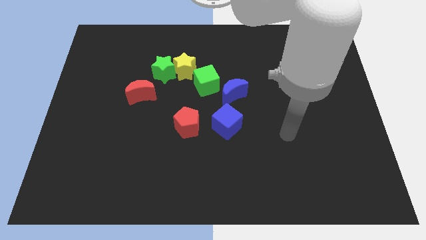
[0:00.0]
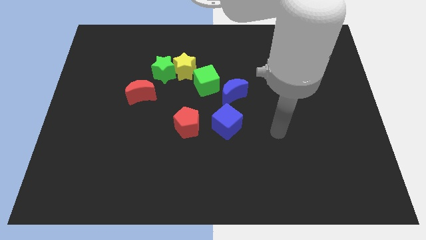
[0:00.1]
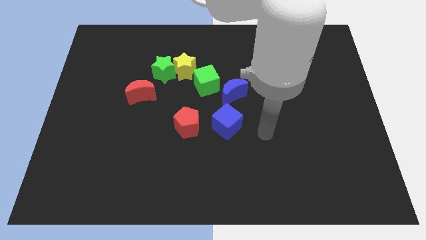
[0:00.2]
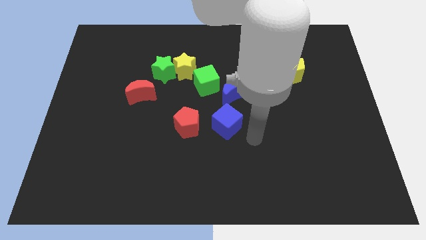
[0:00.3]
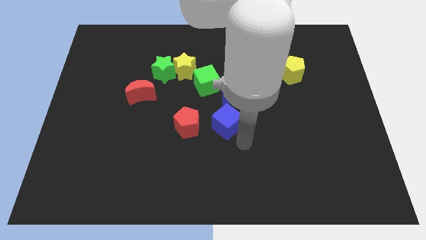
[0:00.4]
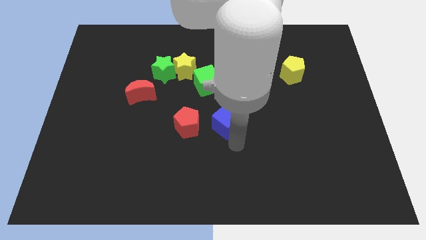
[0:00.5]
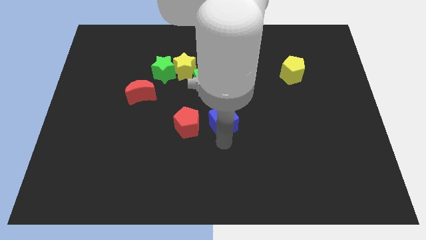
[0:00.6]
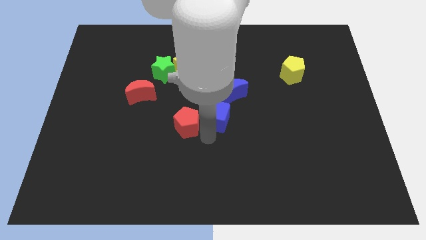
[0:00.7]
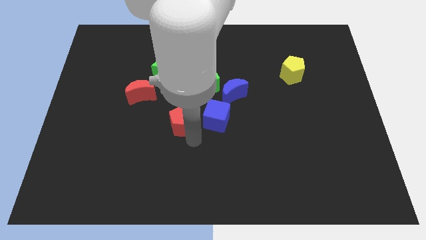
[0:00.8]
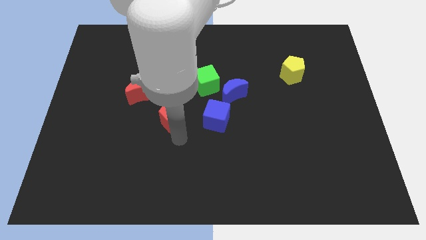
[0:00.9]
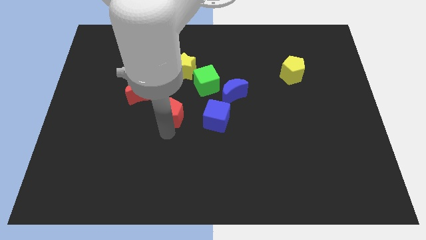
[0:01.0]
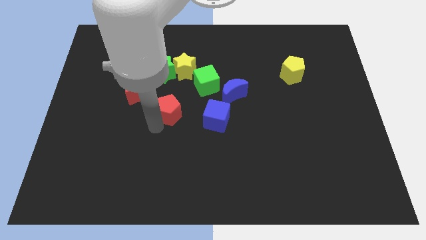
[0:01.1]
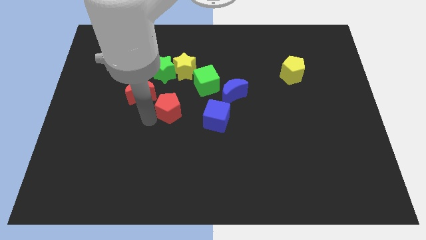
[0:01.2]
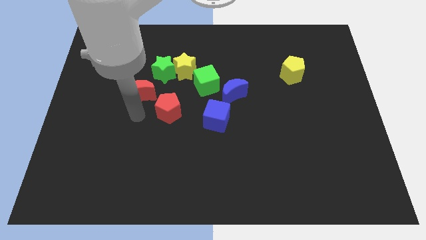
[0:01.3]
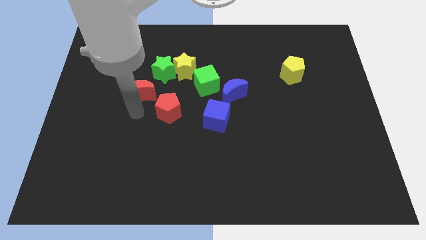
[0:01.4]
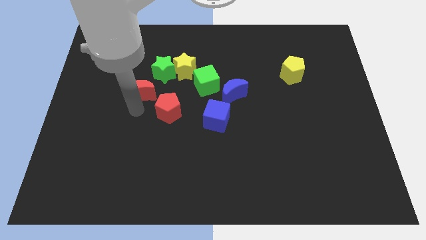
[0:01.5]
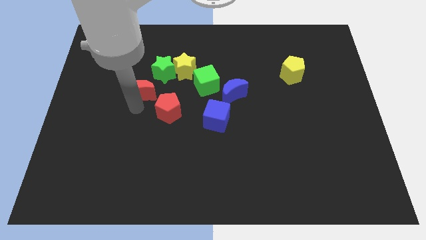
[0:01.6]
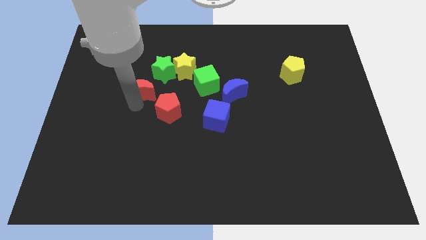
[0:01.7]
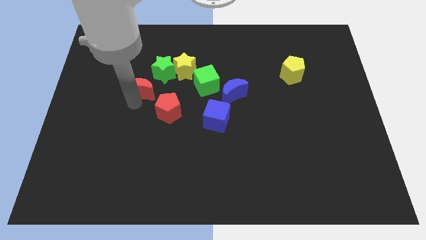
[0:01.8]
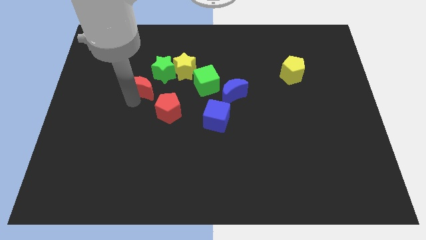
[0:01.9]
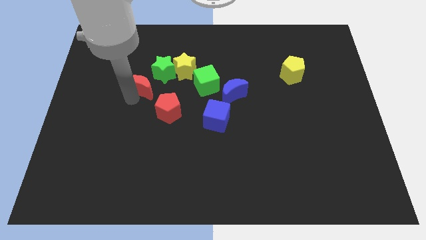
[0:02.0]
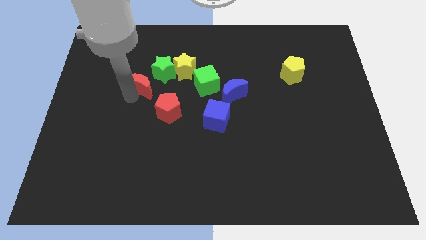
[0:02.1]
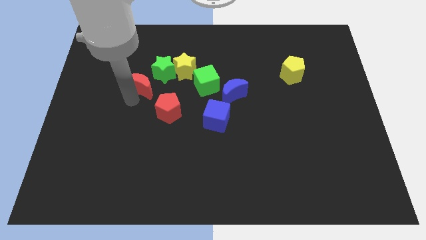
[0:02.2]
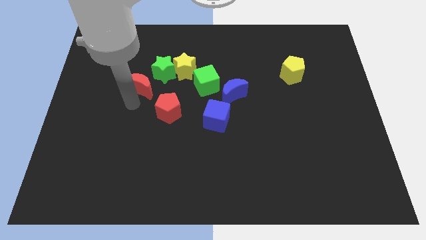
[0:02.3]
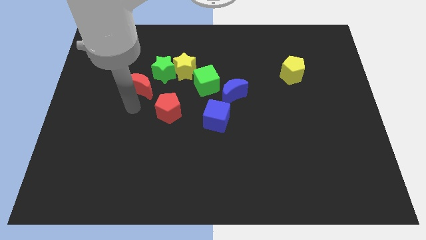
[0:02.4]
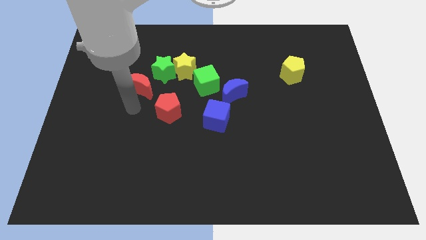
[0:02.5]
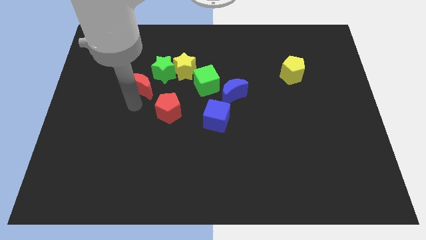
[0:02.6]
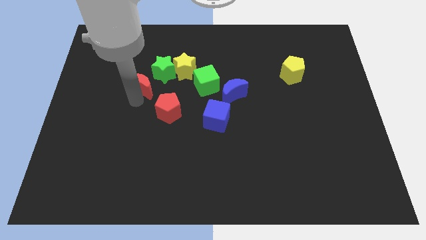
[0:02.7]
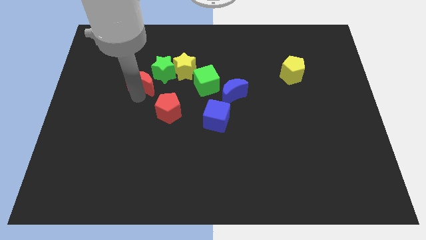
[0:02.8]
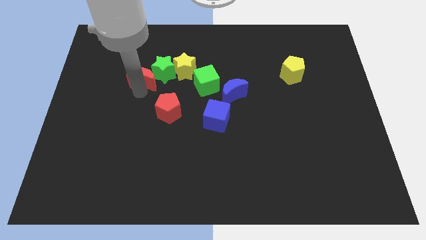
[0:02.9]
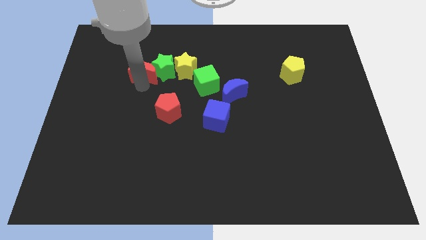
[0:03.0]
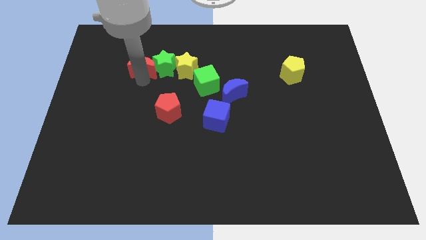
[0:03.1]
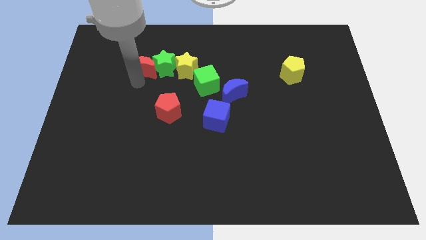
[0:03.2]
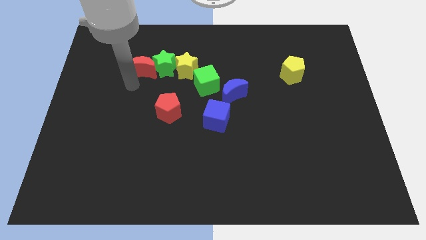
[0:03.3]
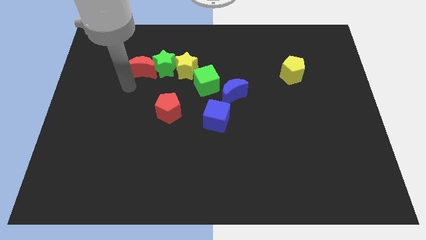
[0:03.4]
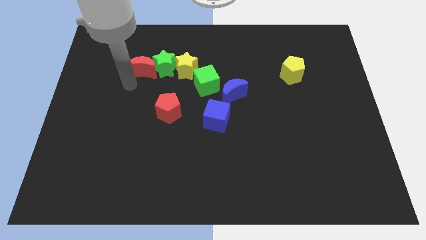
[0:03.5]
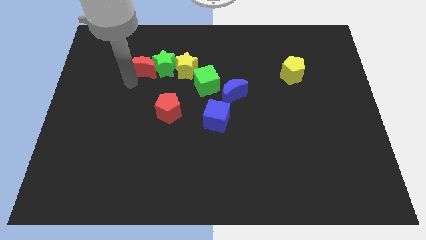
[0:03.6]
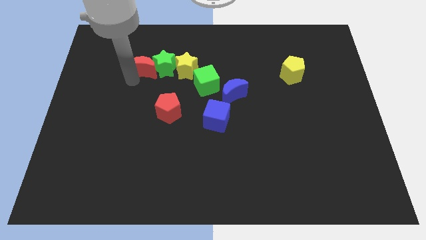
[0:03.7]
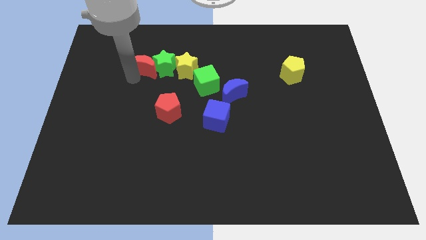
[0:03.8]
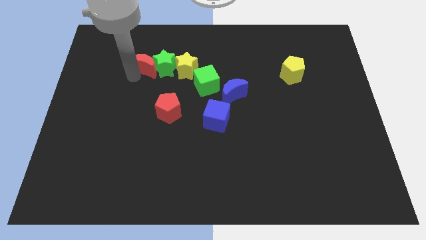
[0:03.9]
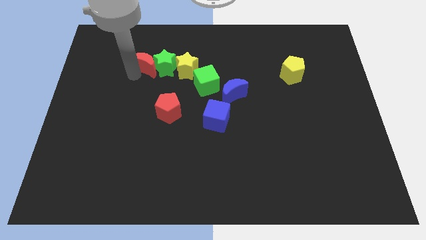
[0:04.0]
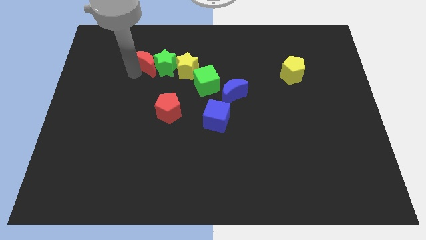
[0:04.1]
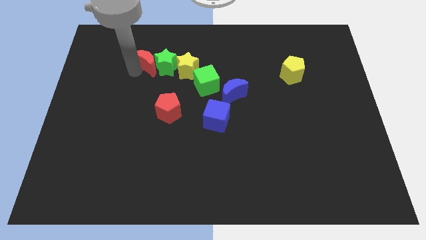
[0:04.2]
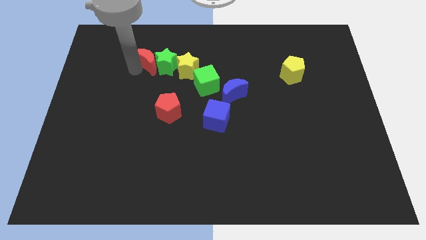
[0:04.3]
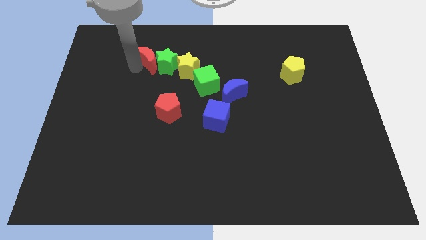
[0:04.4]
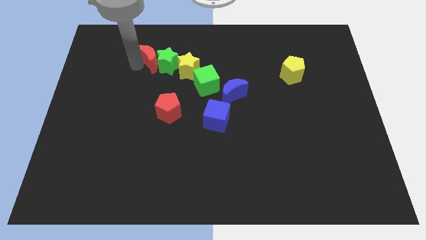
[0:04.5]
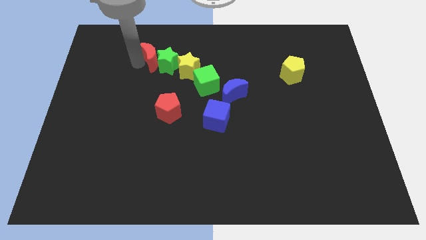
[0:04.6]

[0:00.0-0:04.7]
slightly push the red moon diagonally upwards and to the right

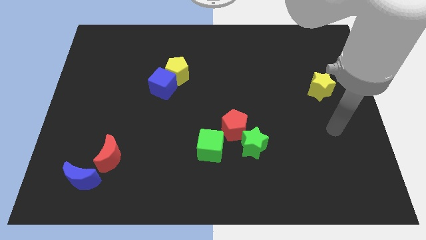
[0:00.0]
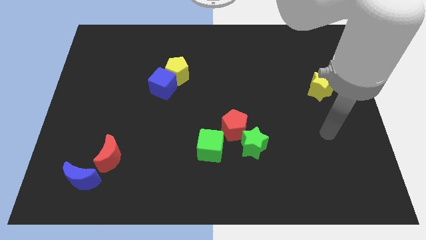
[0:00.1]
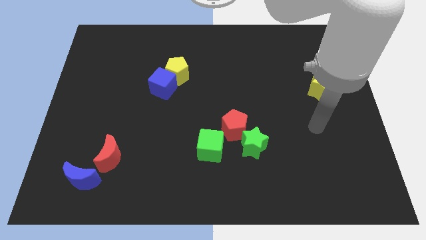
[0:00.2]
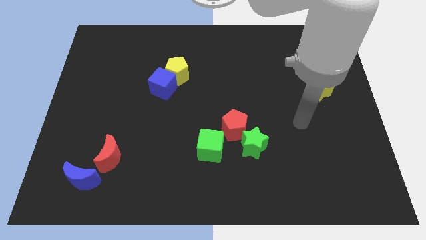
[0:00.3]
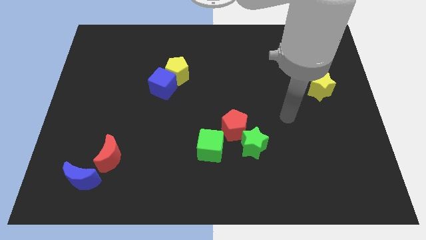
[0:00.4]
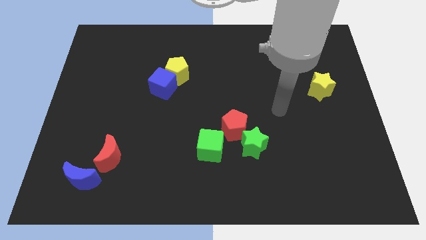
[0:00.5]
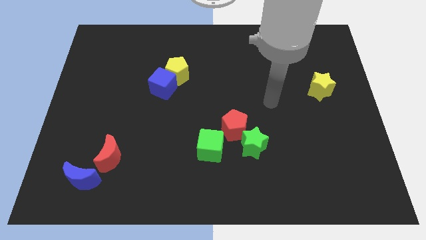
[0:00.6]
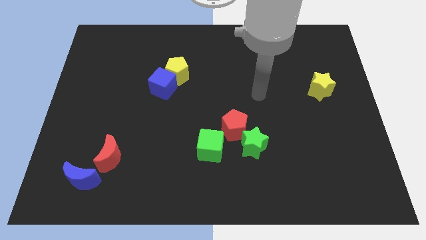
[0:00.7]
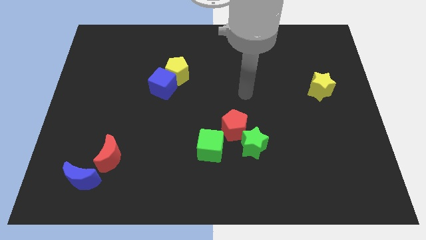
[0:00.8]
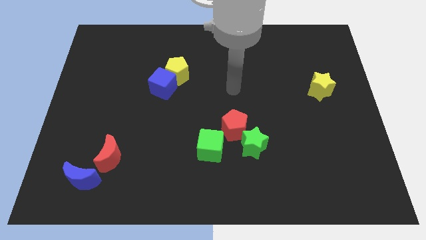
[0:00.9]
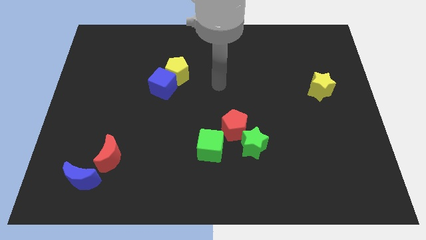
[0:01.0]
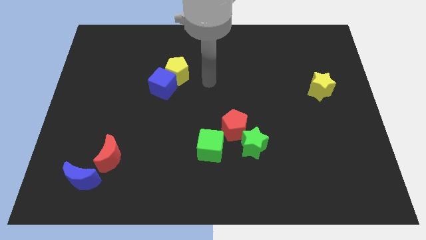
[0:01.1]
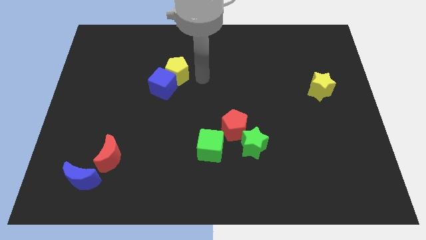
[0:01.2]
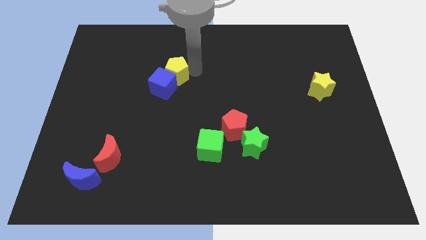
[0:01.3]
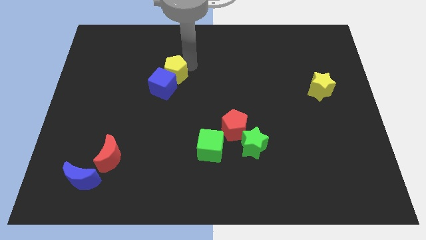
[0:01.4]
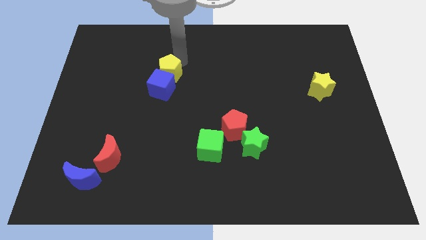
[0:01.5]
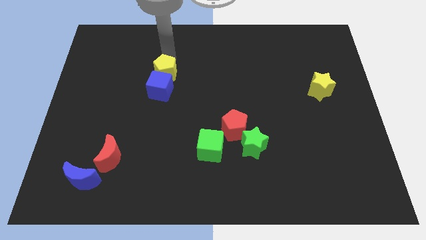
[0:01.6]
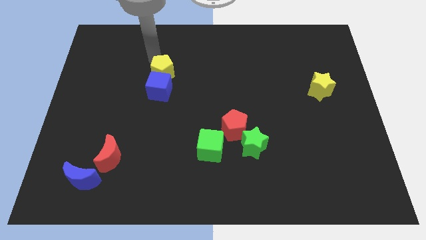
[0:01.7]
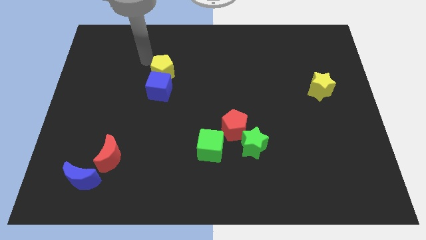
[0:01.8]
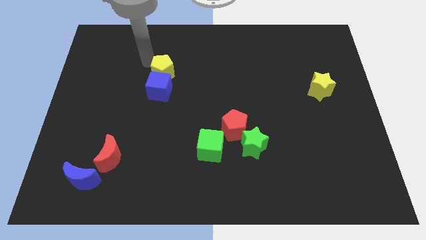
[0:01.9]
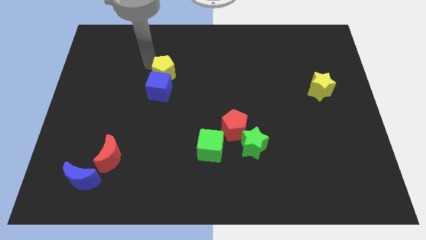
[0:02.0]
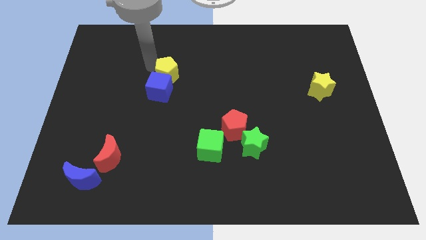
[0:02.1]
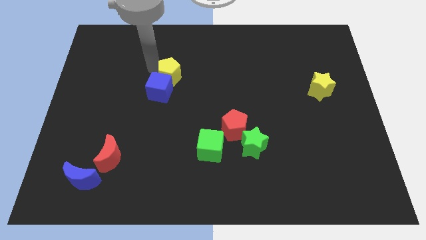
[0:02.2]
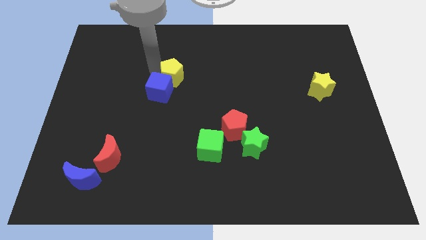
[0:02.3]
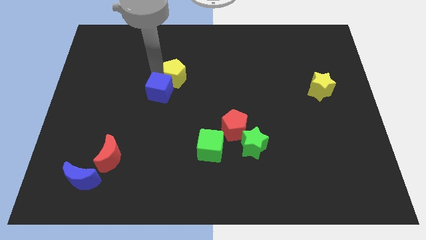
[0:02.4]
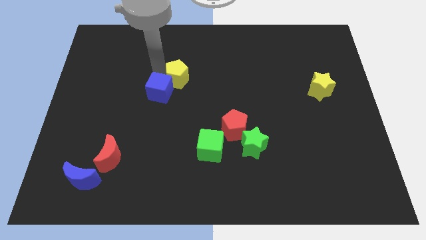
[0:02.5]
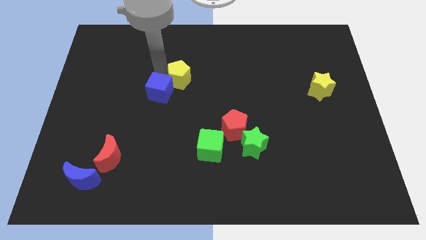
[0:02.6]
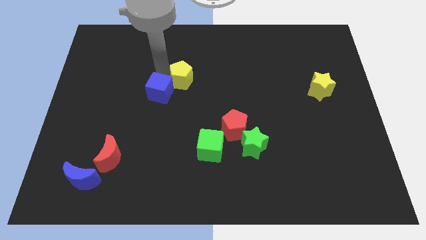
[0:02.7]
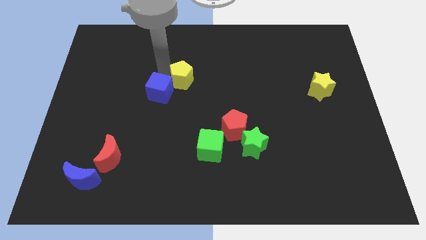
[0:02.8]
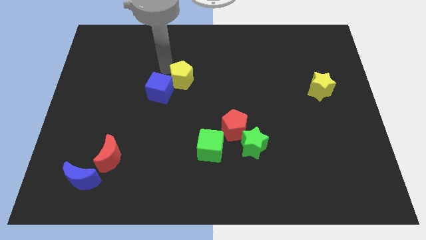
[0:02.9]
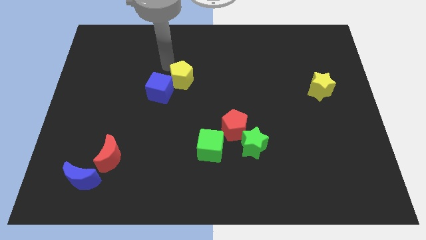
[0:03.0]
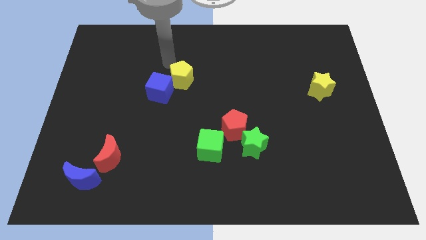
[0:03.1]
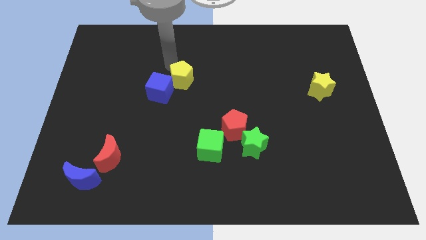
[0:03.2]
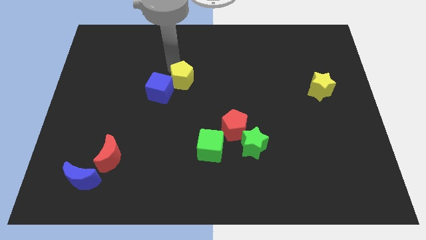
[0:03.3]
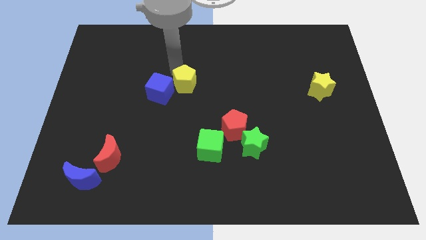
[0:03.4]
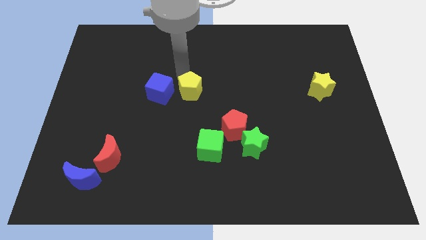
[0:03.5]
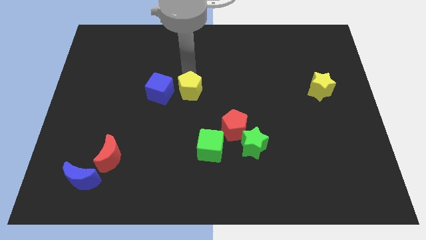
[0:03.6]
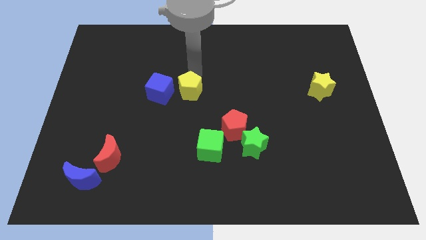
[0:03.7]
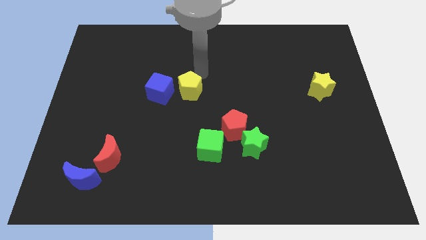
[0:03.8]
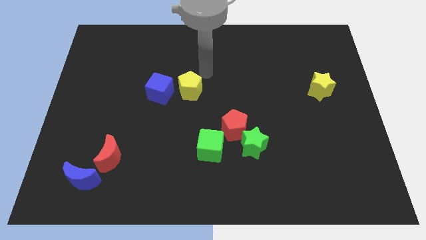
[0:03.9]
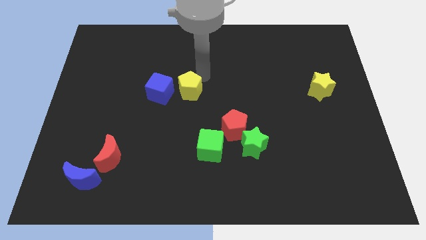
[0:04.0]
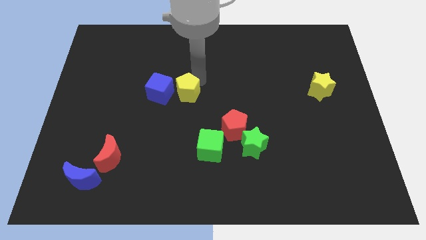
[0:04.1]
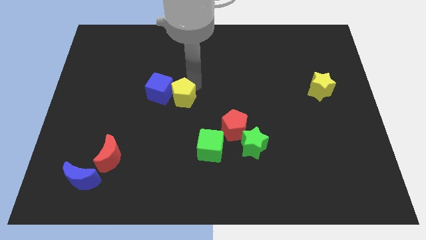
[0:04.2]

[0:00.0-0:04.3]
slightly slide the yellow pentagon downwards
